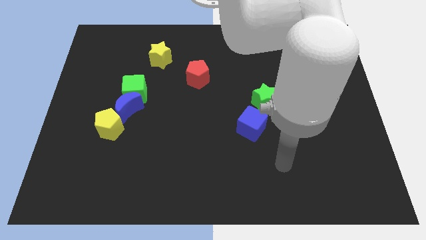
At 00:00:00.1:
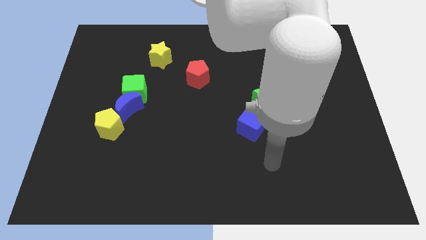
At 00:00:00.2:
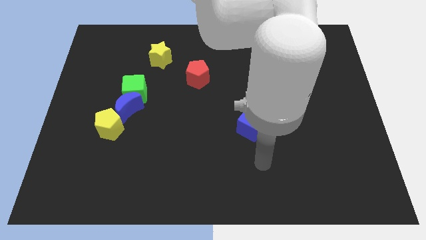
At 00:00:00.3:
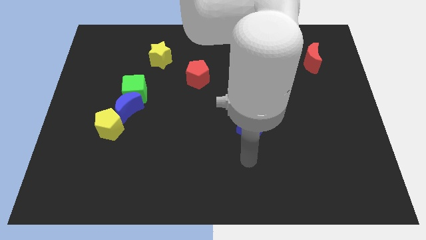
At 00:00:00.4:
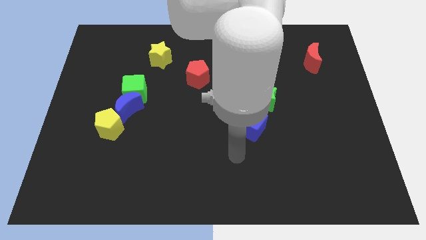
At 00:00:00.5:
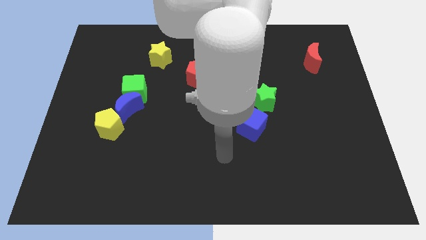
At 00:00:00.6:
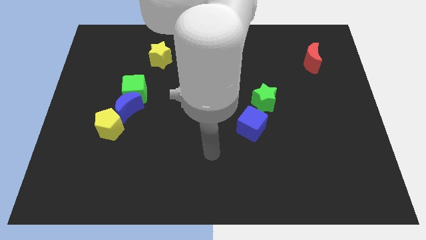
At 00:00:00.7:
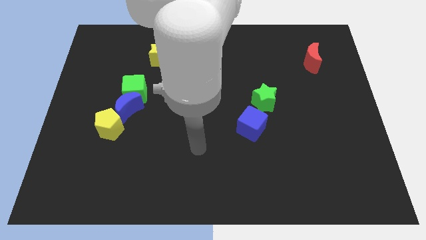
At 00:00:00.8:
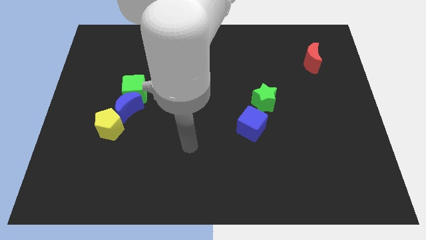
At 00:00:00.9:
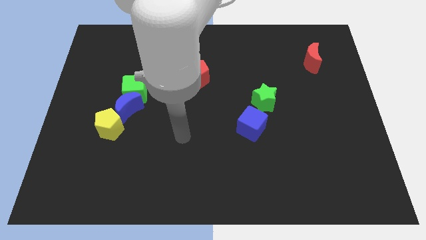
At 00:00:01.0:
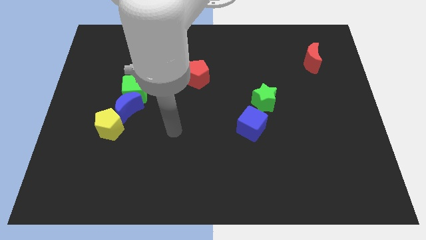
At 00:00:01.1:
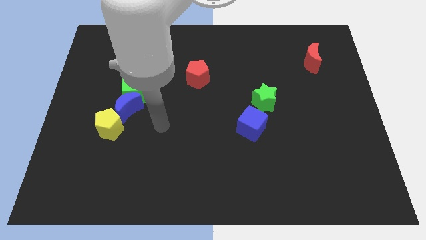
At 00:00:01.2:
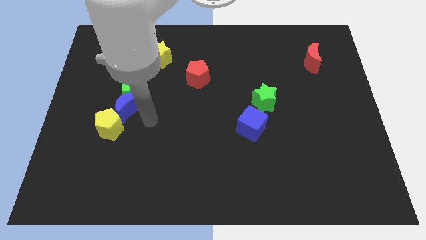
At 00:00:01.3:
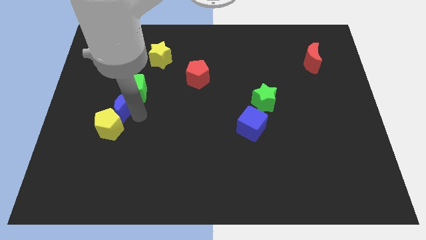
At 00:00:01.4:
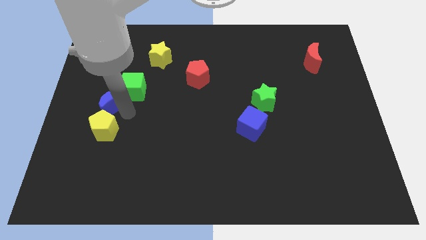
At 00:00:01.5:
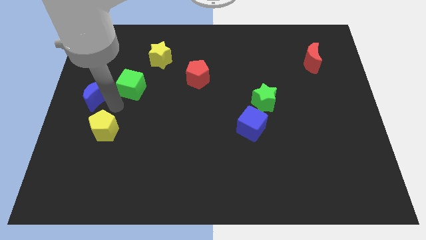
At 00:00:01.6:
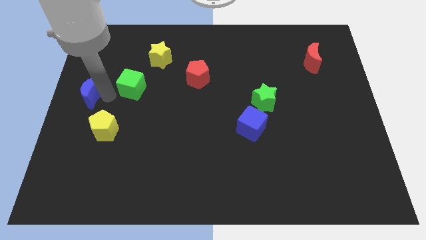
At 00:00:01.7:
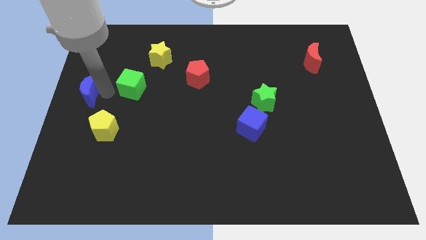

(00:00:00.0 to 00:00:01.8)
separate the green cube from the blue moon

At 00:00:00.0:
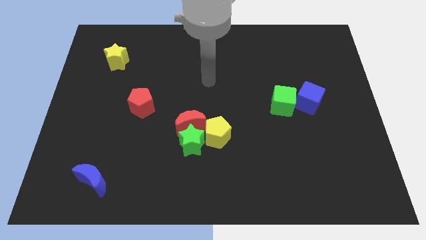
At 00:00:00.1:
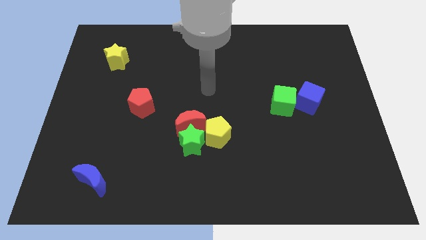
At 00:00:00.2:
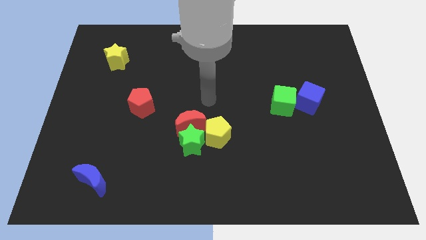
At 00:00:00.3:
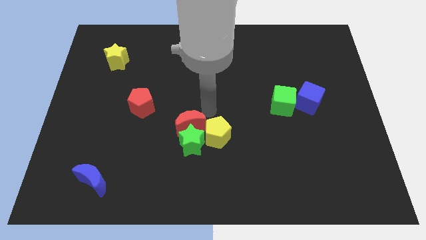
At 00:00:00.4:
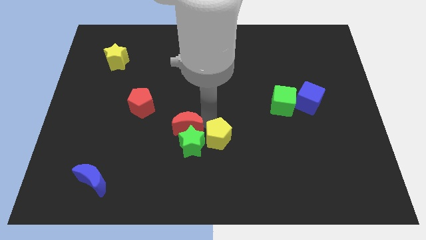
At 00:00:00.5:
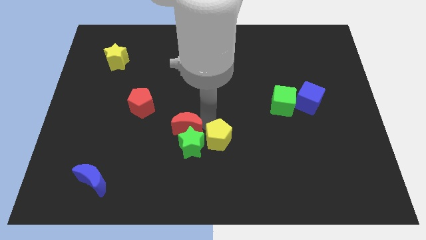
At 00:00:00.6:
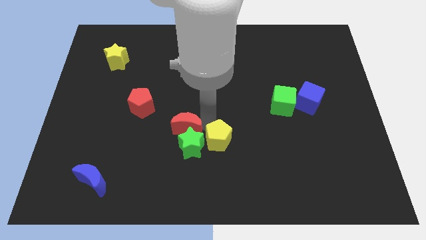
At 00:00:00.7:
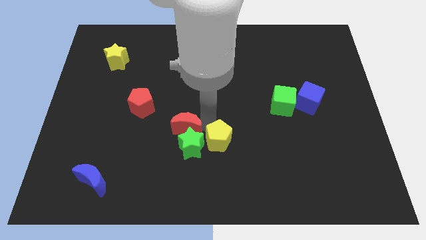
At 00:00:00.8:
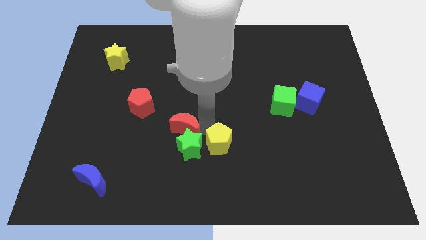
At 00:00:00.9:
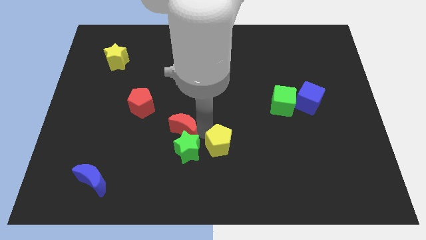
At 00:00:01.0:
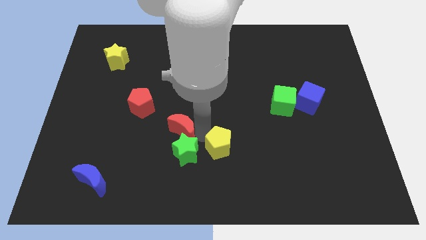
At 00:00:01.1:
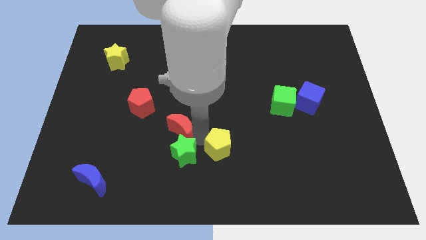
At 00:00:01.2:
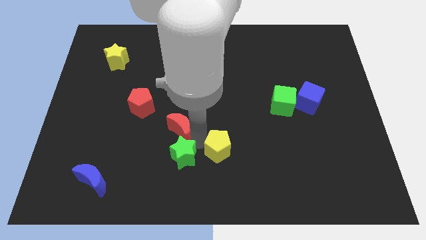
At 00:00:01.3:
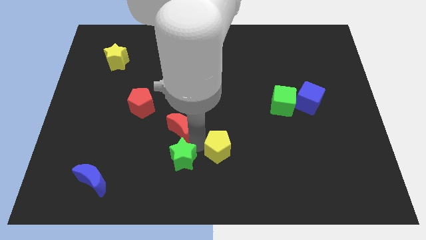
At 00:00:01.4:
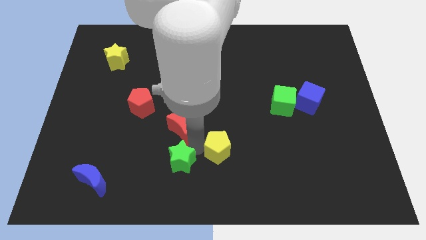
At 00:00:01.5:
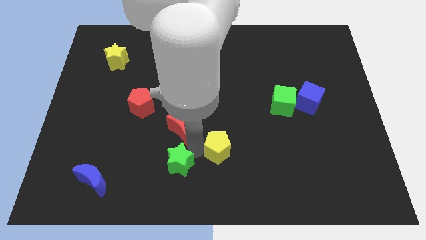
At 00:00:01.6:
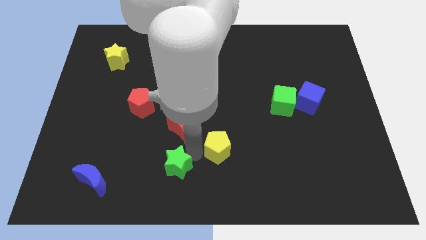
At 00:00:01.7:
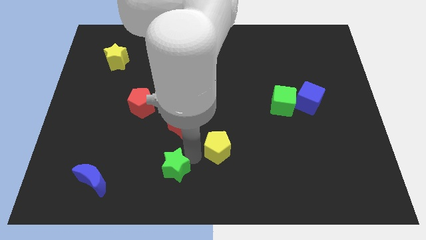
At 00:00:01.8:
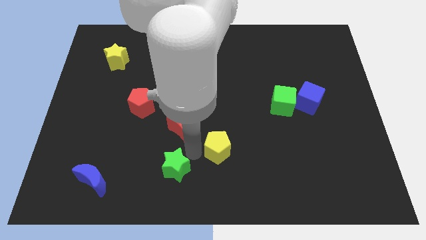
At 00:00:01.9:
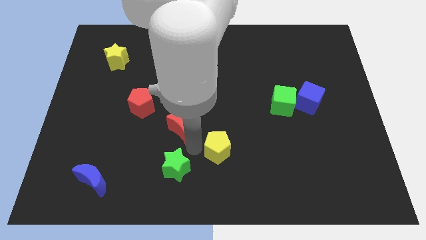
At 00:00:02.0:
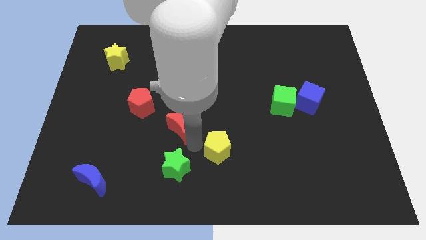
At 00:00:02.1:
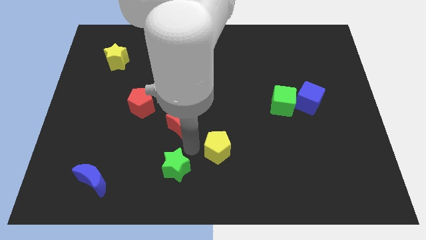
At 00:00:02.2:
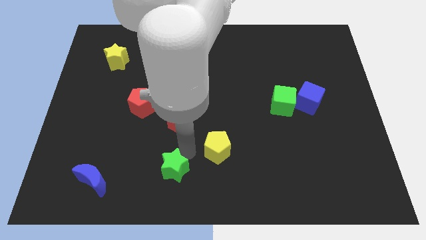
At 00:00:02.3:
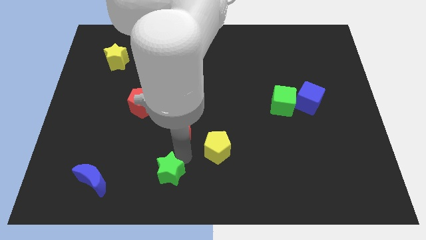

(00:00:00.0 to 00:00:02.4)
move the green star away from the red moon and yellow pentagon

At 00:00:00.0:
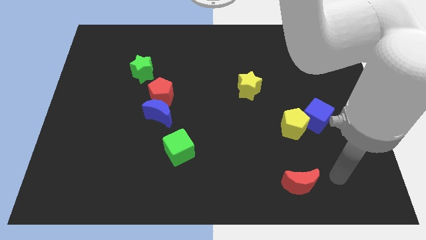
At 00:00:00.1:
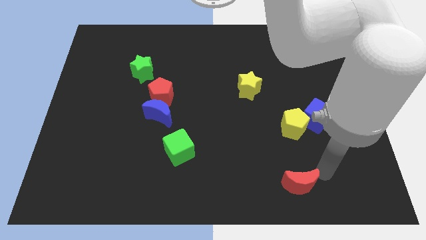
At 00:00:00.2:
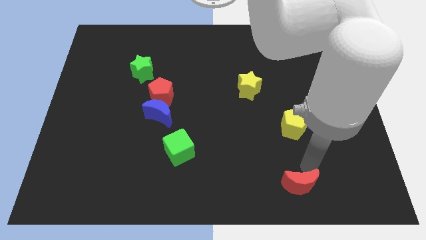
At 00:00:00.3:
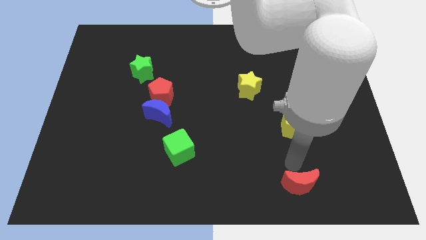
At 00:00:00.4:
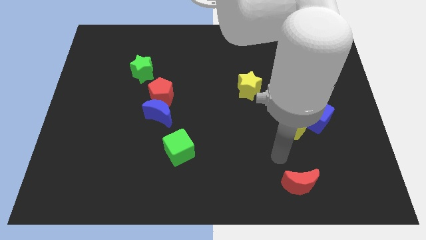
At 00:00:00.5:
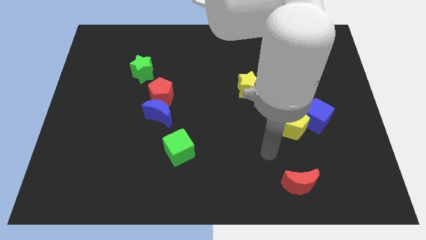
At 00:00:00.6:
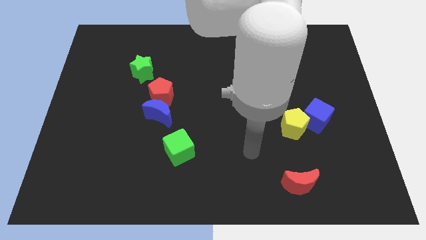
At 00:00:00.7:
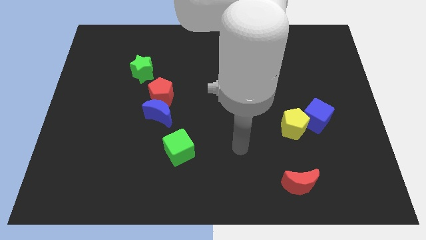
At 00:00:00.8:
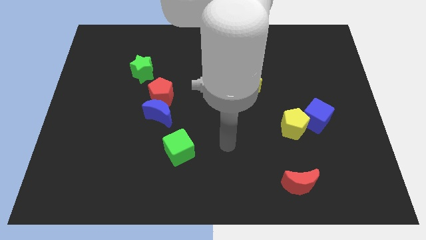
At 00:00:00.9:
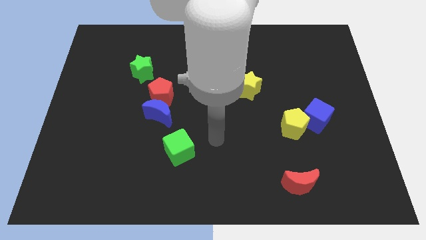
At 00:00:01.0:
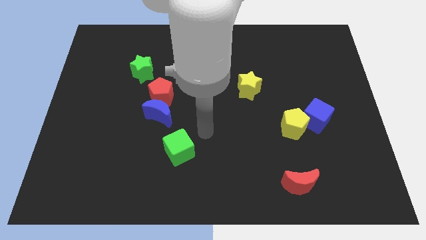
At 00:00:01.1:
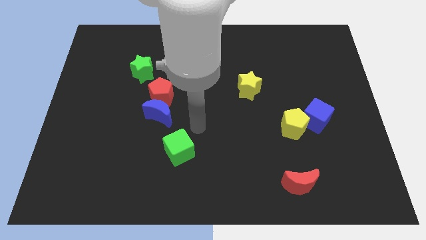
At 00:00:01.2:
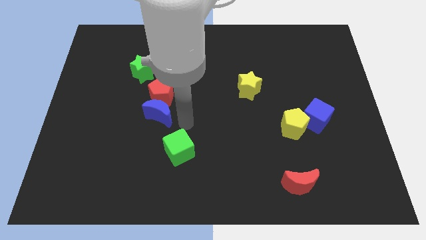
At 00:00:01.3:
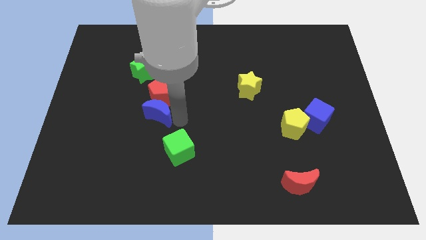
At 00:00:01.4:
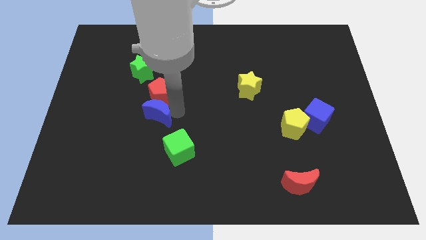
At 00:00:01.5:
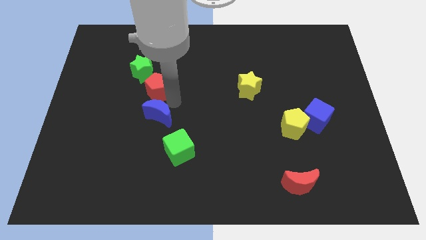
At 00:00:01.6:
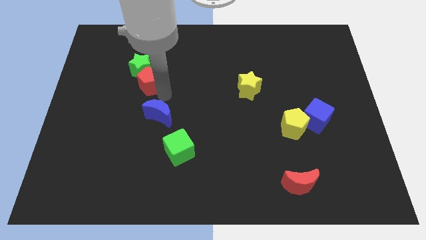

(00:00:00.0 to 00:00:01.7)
move the blue moon away from the red pentagon

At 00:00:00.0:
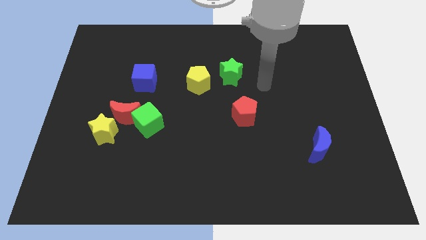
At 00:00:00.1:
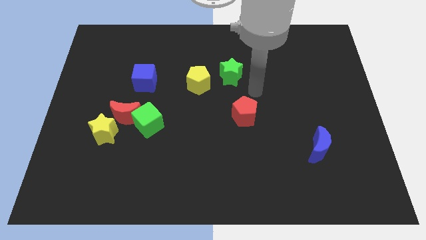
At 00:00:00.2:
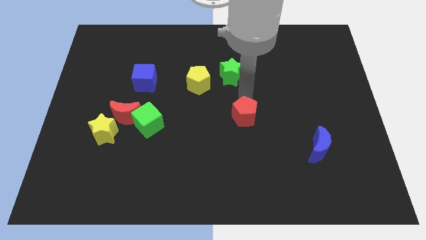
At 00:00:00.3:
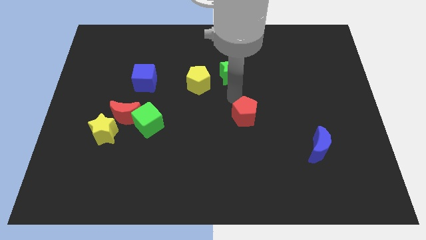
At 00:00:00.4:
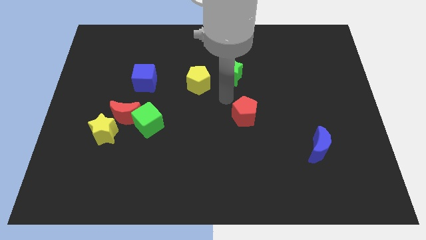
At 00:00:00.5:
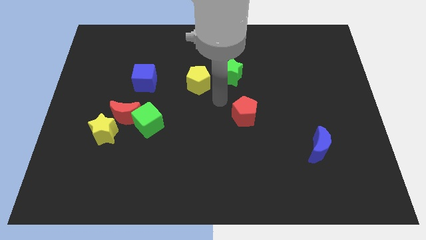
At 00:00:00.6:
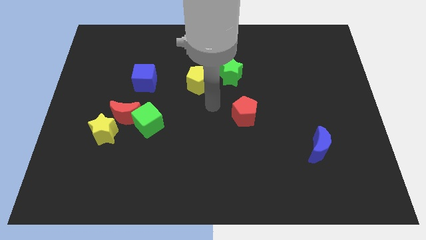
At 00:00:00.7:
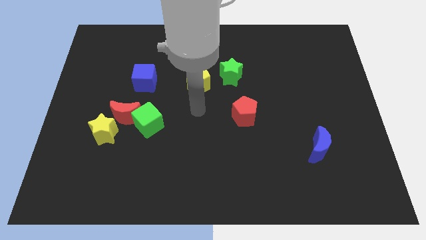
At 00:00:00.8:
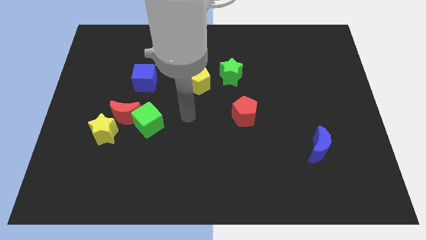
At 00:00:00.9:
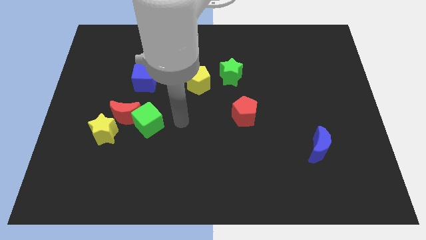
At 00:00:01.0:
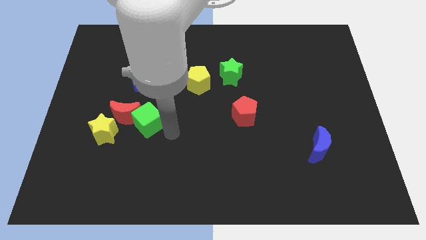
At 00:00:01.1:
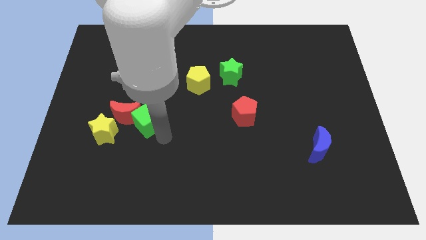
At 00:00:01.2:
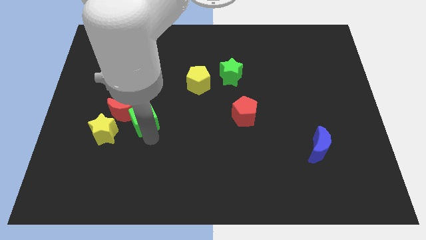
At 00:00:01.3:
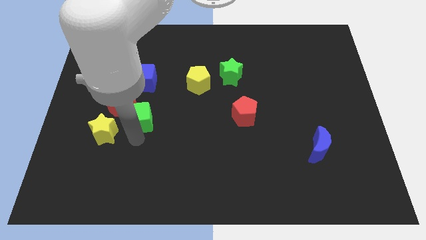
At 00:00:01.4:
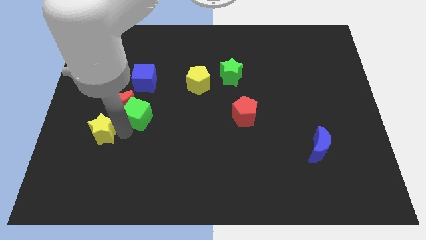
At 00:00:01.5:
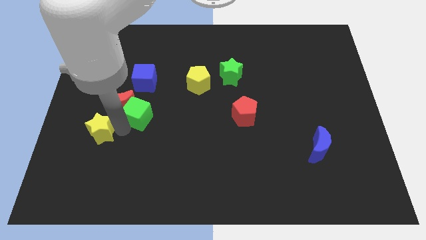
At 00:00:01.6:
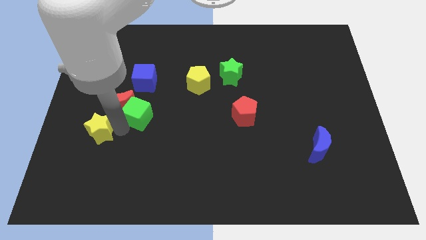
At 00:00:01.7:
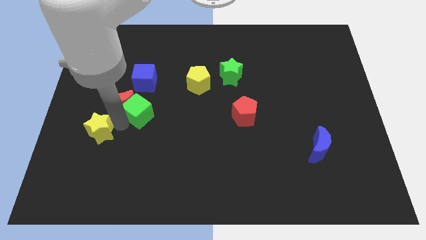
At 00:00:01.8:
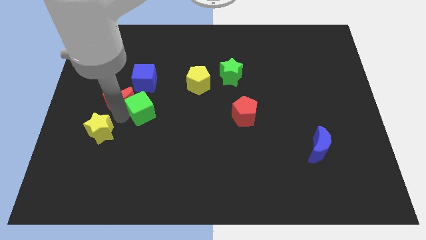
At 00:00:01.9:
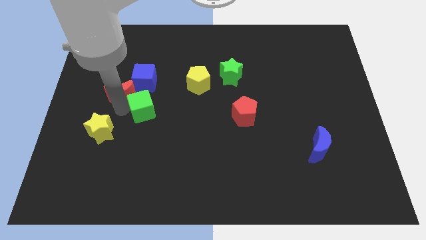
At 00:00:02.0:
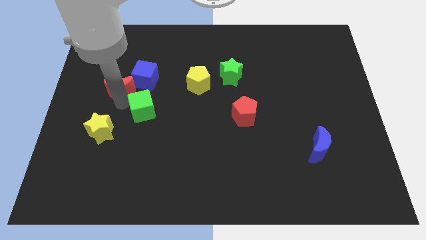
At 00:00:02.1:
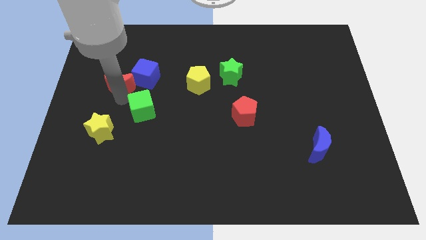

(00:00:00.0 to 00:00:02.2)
move the red moon away from the green cube and yellow star

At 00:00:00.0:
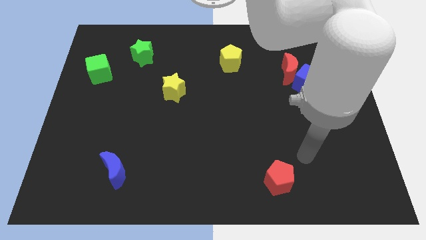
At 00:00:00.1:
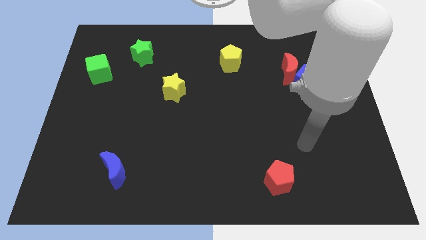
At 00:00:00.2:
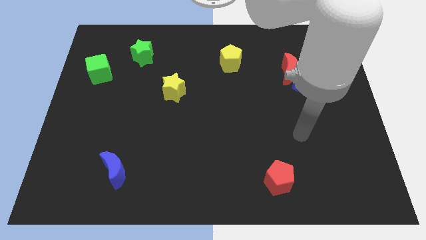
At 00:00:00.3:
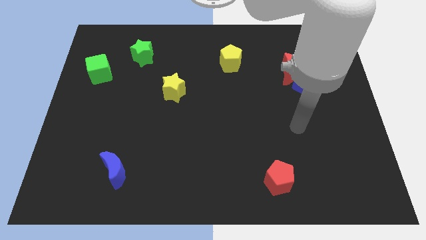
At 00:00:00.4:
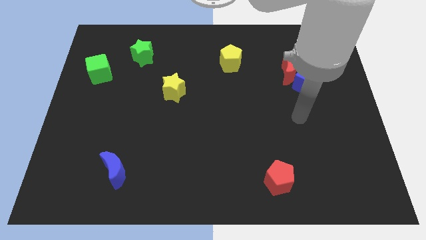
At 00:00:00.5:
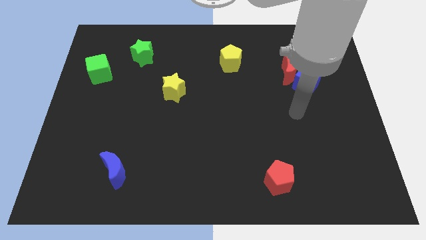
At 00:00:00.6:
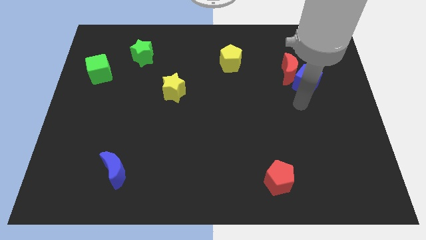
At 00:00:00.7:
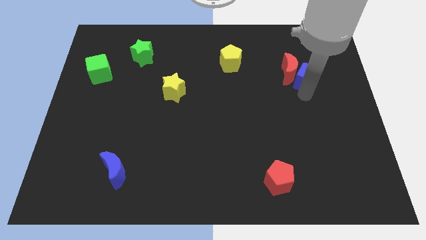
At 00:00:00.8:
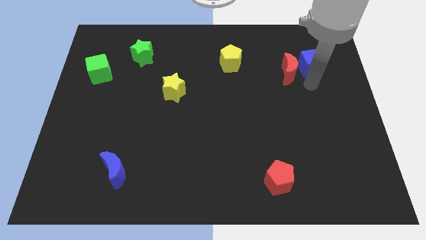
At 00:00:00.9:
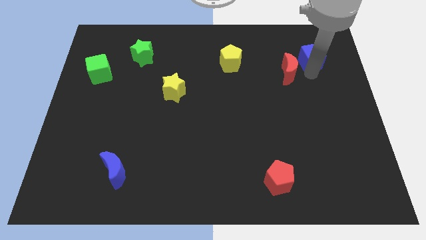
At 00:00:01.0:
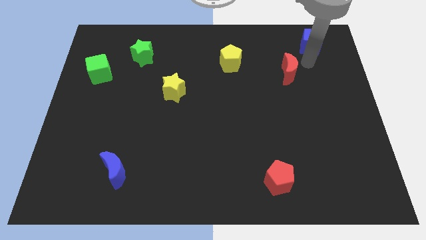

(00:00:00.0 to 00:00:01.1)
separate the red moon from the blue cube
